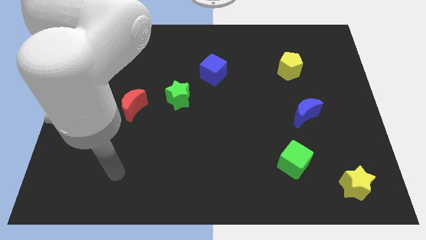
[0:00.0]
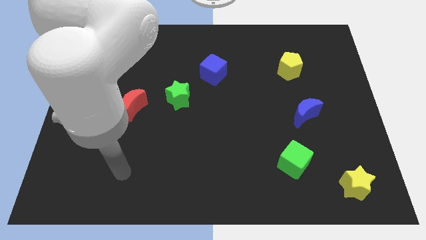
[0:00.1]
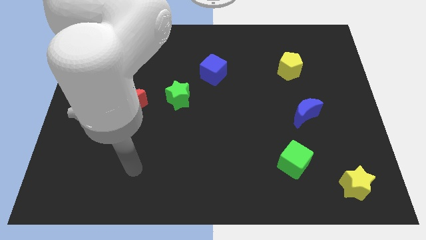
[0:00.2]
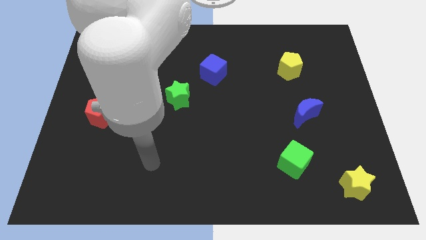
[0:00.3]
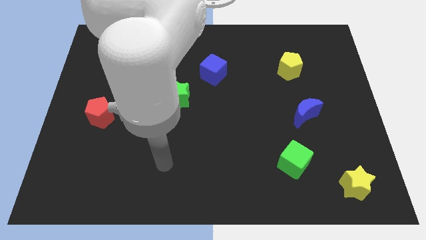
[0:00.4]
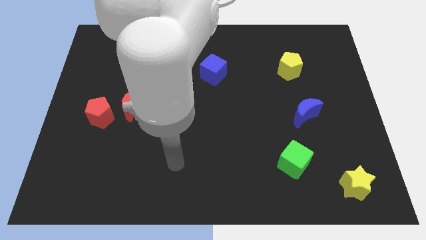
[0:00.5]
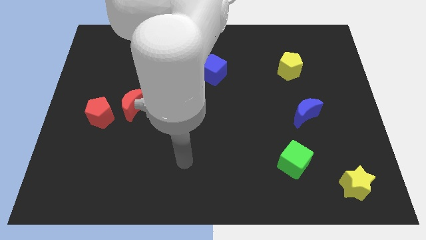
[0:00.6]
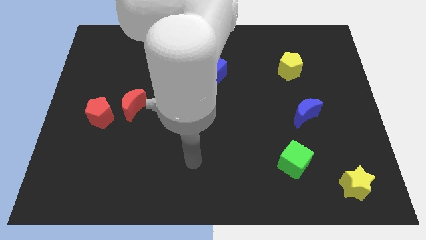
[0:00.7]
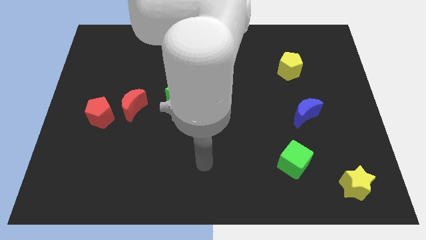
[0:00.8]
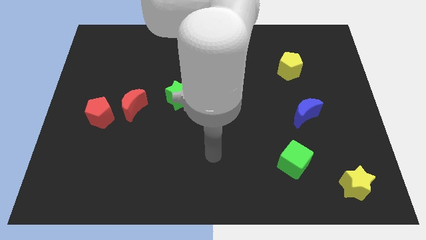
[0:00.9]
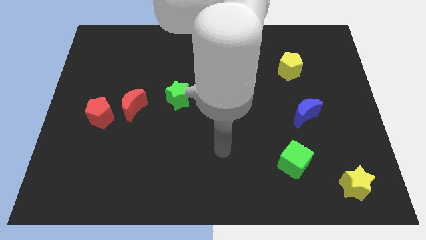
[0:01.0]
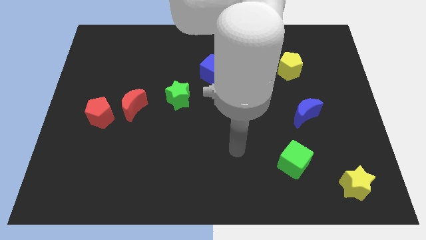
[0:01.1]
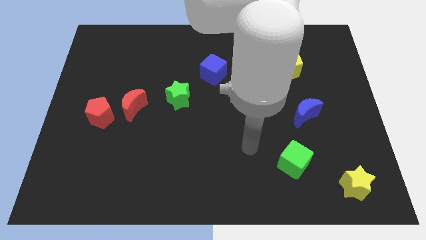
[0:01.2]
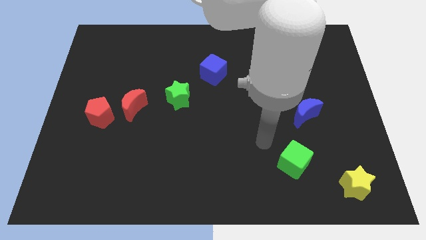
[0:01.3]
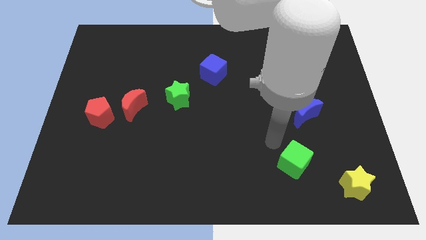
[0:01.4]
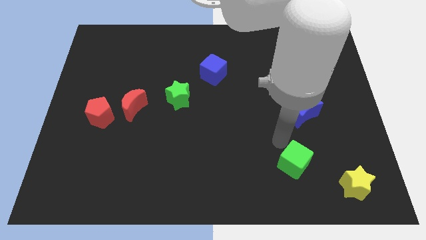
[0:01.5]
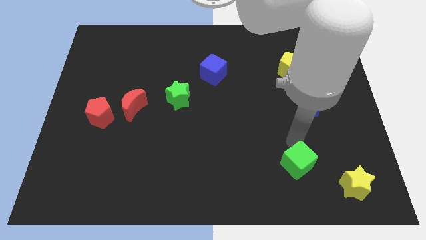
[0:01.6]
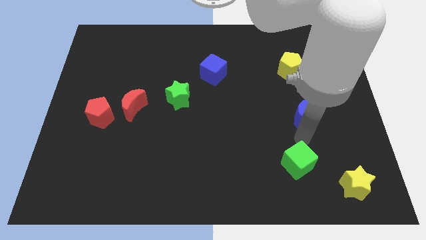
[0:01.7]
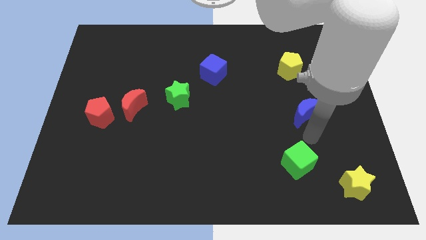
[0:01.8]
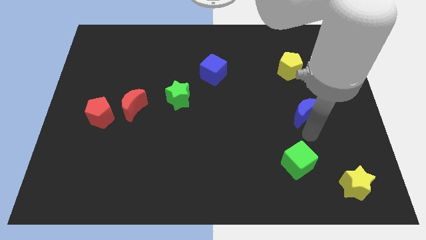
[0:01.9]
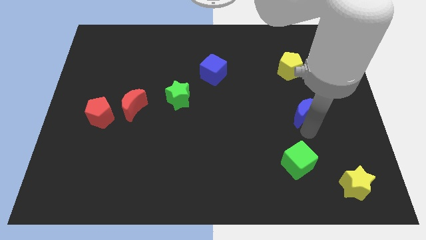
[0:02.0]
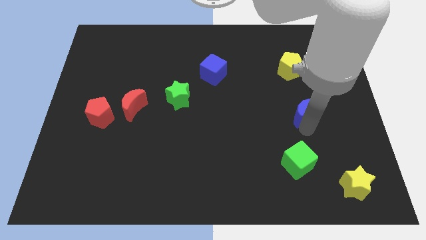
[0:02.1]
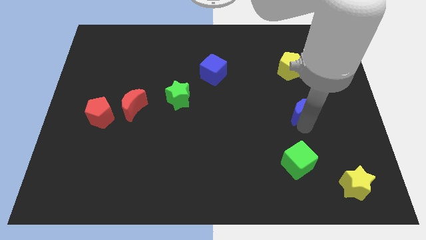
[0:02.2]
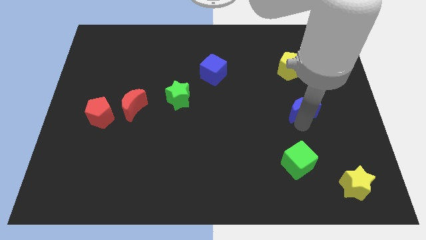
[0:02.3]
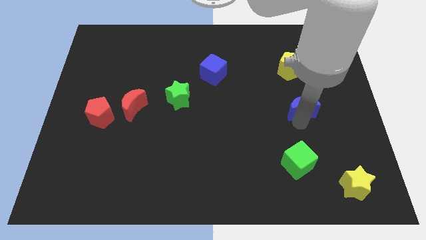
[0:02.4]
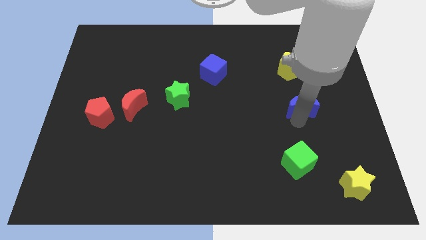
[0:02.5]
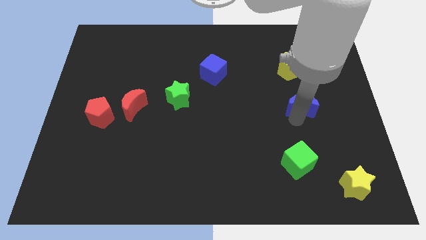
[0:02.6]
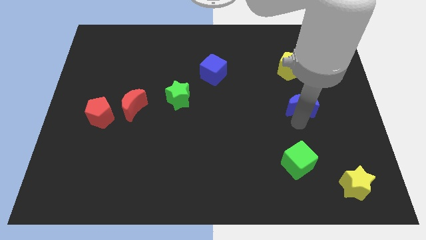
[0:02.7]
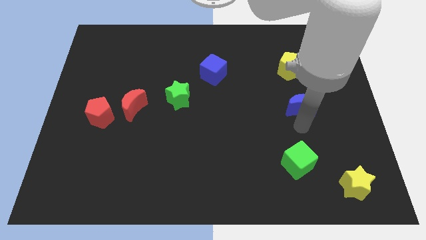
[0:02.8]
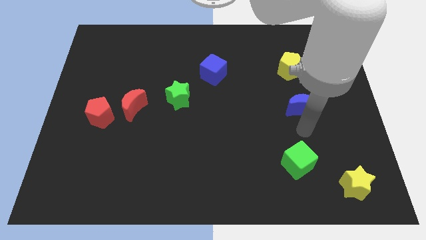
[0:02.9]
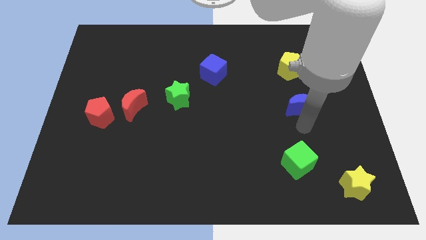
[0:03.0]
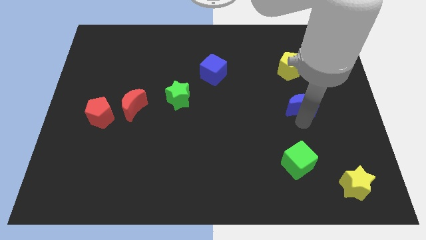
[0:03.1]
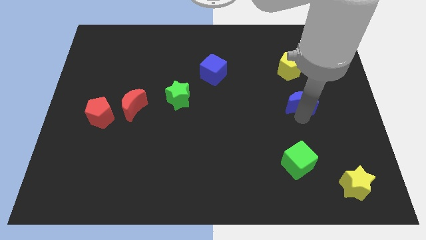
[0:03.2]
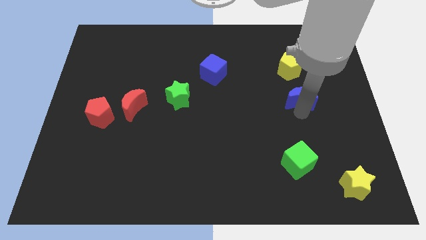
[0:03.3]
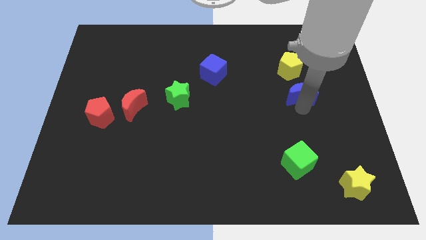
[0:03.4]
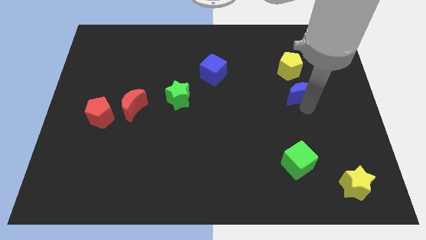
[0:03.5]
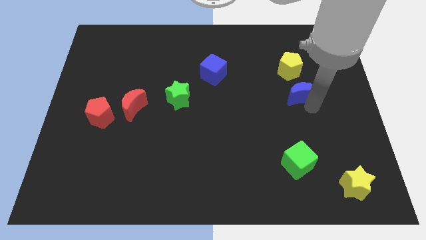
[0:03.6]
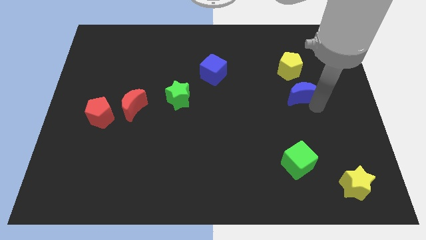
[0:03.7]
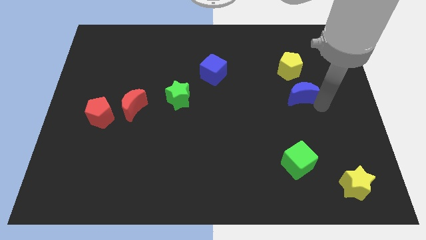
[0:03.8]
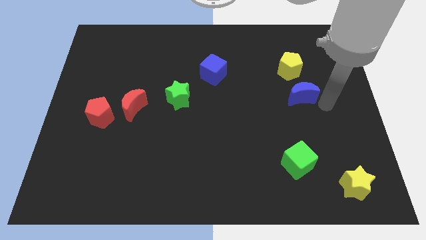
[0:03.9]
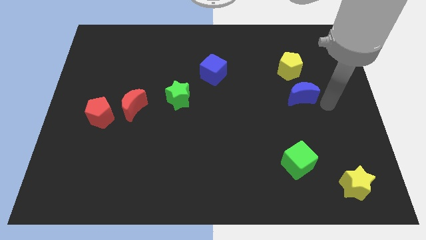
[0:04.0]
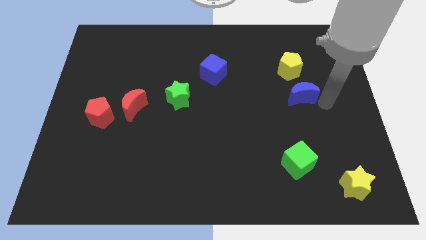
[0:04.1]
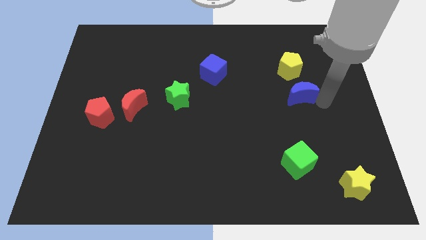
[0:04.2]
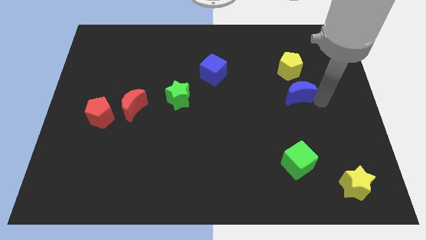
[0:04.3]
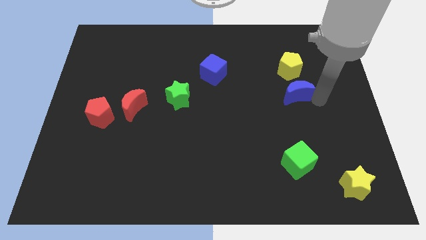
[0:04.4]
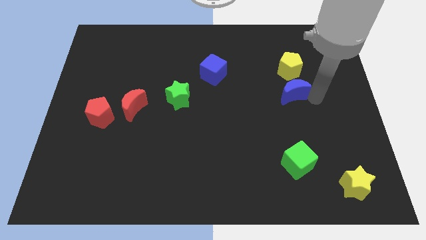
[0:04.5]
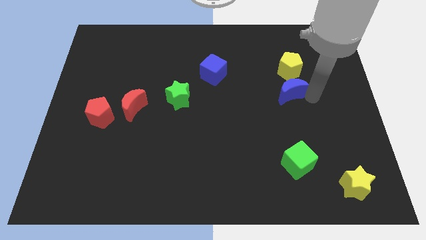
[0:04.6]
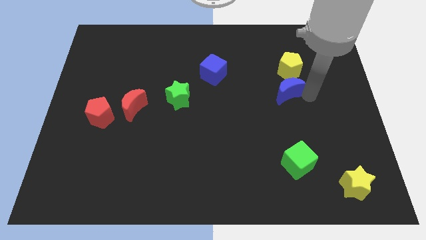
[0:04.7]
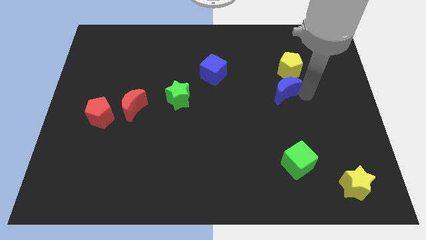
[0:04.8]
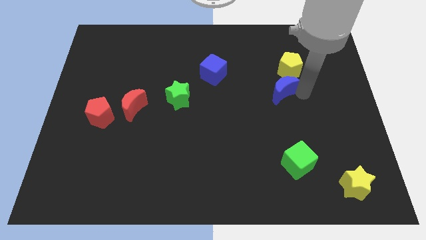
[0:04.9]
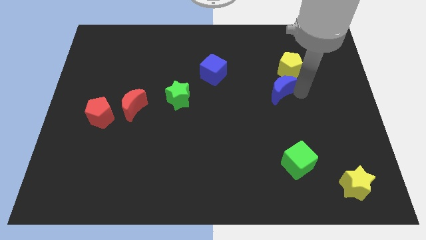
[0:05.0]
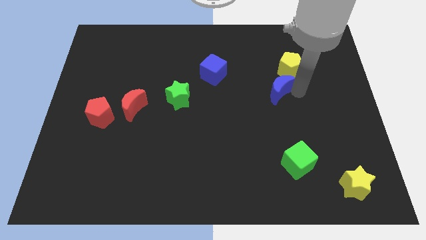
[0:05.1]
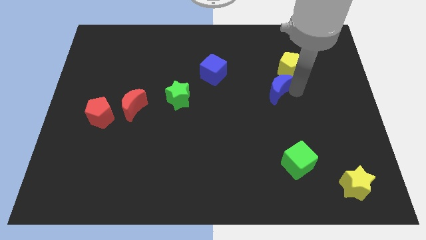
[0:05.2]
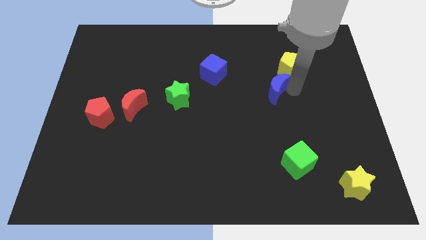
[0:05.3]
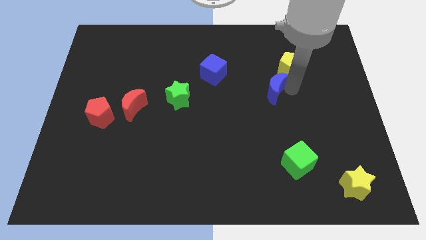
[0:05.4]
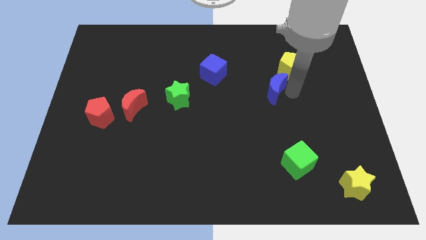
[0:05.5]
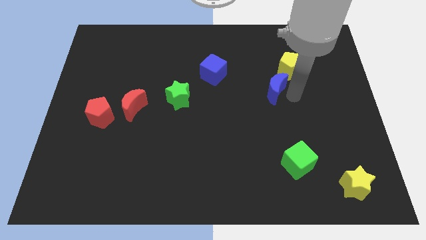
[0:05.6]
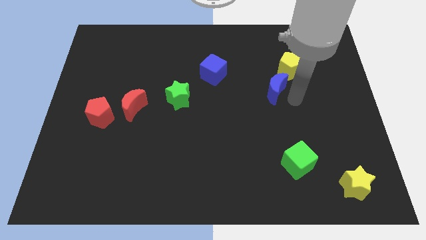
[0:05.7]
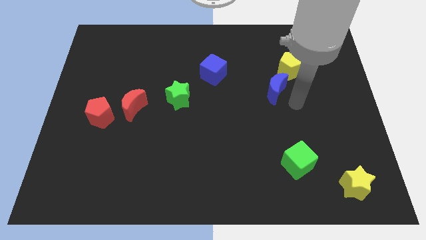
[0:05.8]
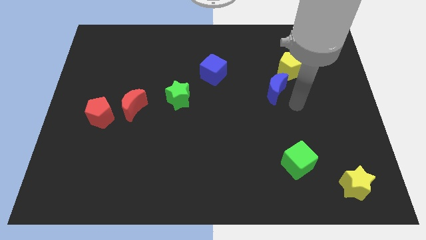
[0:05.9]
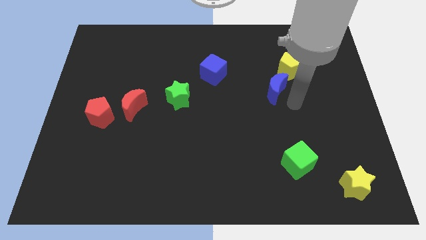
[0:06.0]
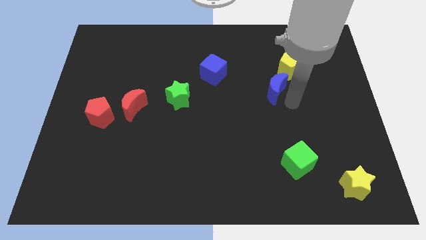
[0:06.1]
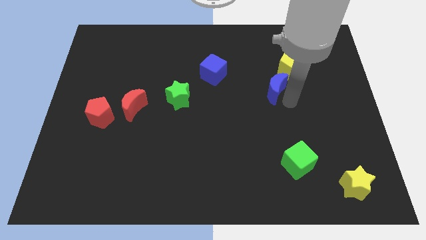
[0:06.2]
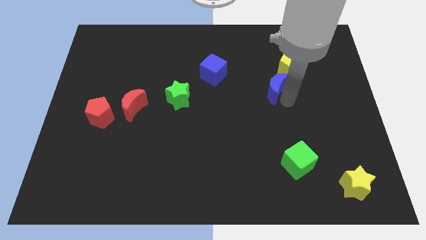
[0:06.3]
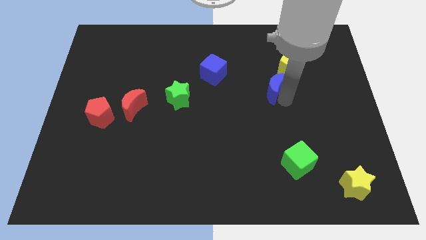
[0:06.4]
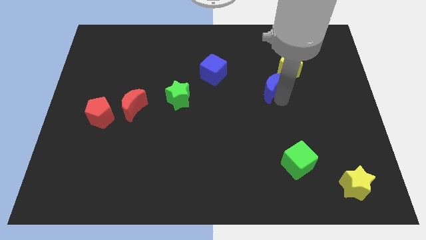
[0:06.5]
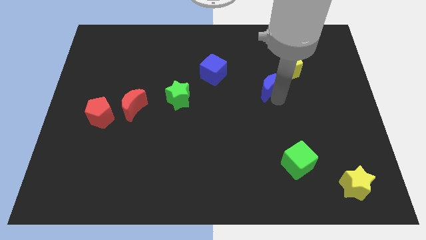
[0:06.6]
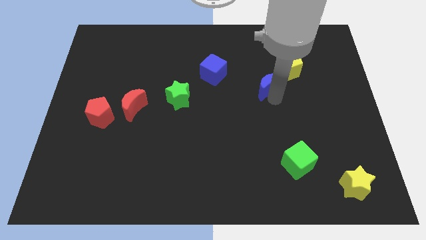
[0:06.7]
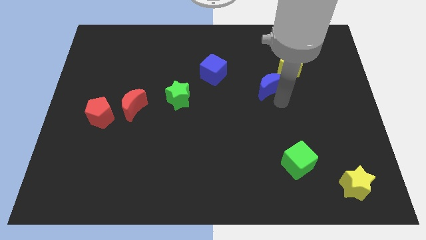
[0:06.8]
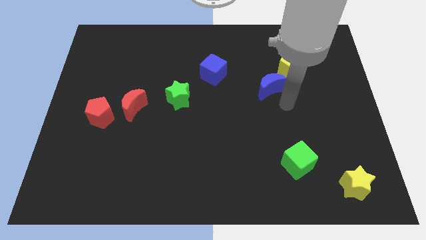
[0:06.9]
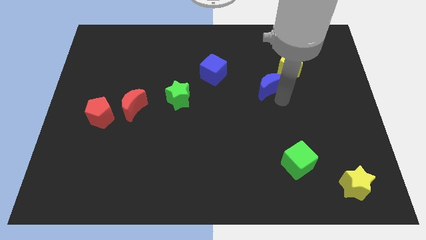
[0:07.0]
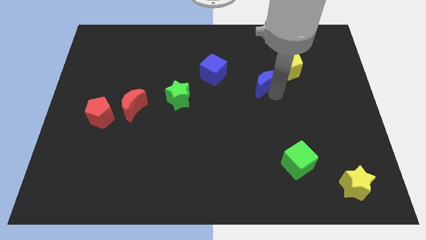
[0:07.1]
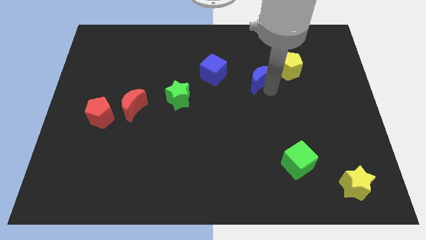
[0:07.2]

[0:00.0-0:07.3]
move the blue moon left of the yellow pentagon

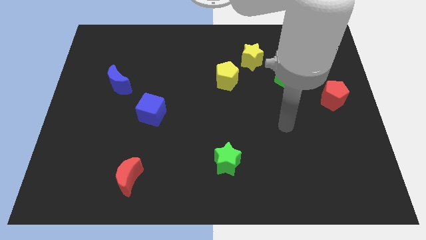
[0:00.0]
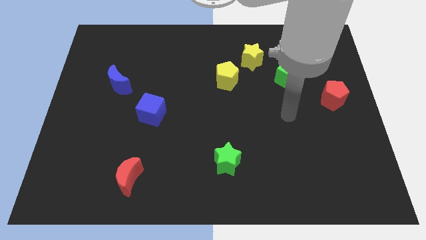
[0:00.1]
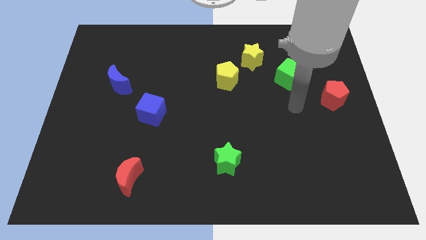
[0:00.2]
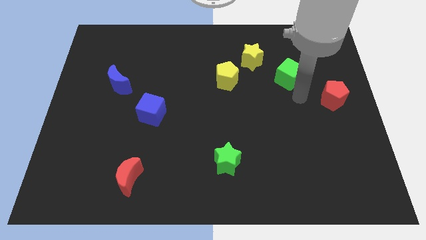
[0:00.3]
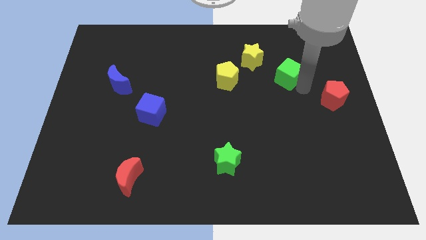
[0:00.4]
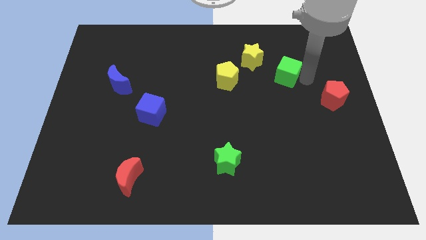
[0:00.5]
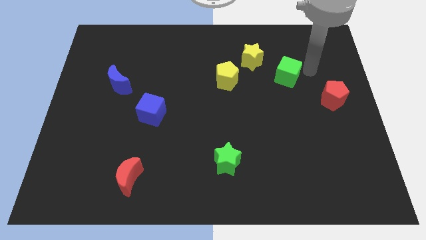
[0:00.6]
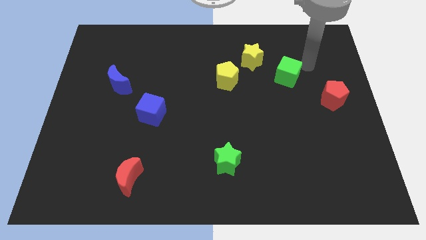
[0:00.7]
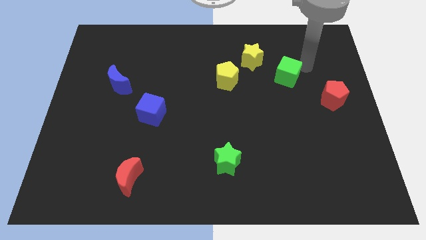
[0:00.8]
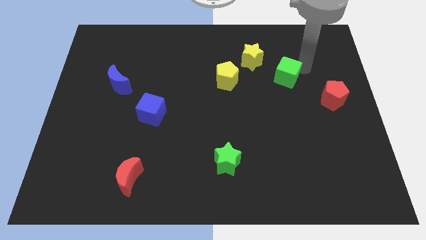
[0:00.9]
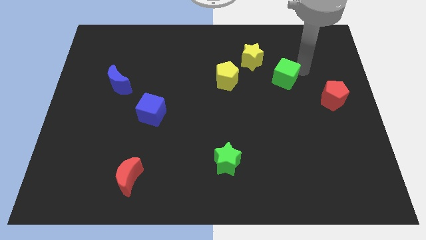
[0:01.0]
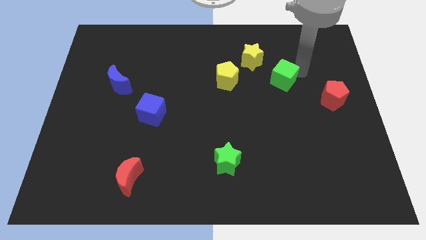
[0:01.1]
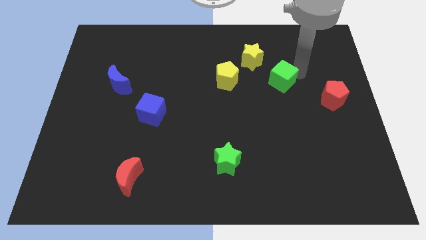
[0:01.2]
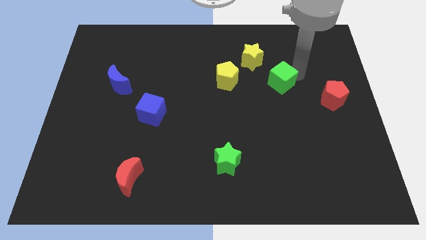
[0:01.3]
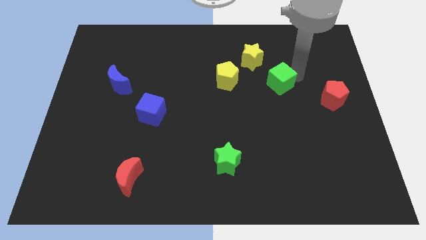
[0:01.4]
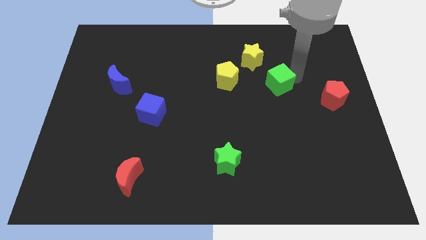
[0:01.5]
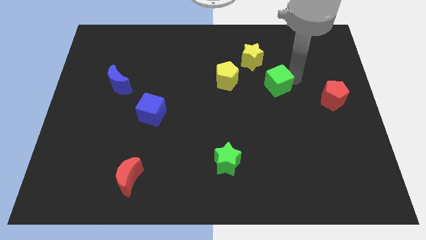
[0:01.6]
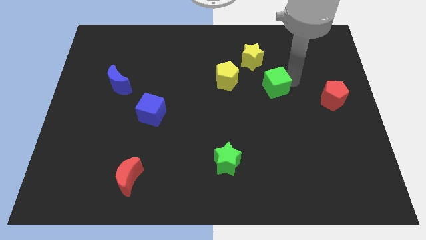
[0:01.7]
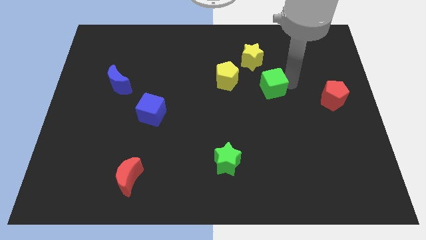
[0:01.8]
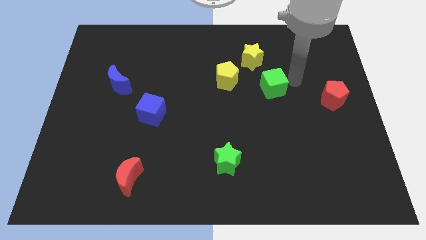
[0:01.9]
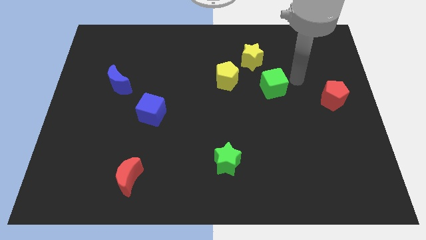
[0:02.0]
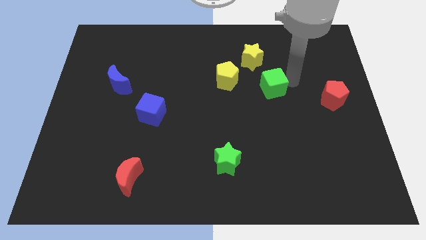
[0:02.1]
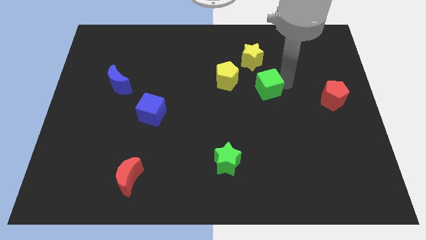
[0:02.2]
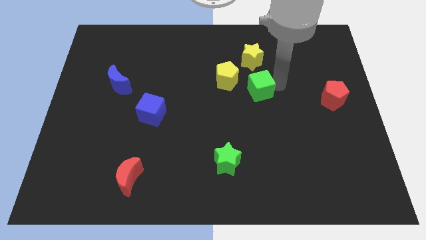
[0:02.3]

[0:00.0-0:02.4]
put the green cube to the bottom right side of the yellow pentagon
